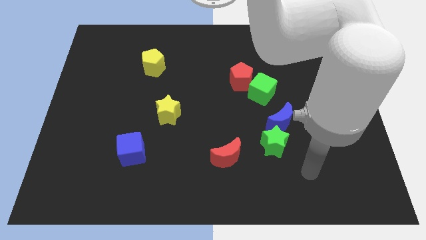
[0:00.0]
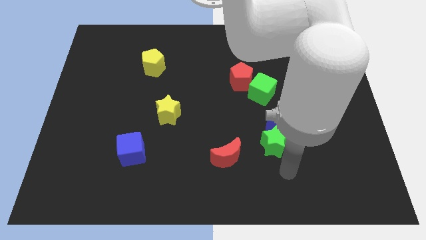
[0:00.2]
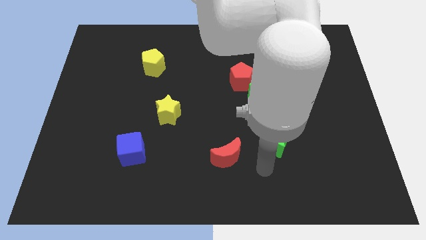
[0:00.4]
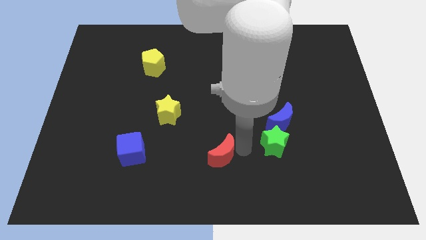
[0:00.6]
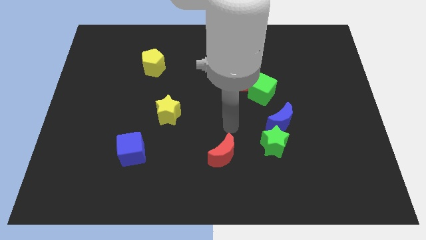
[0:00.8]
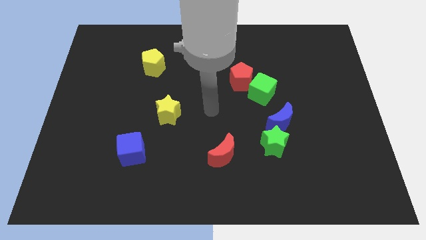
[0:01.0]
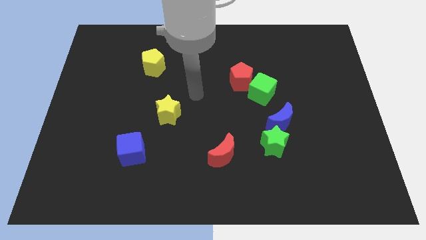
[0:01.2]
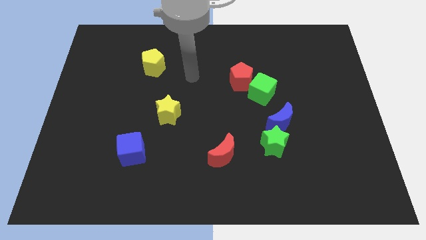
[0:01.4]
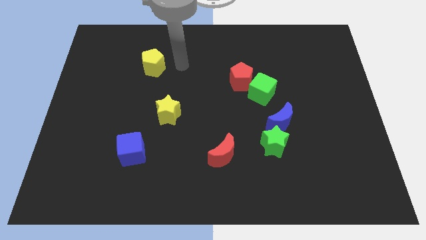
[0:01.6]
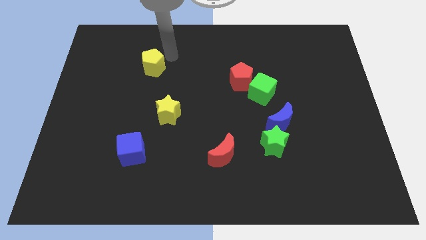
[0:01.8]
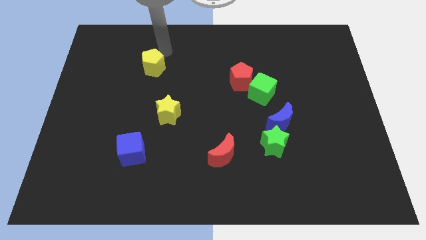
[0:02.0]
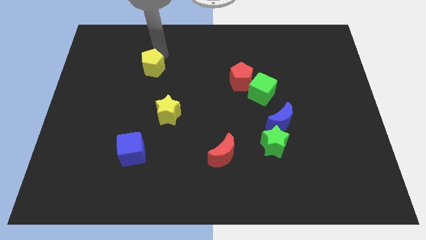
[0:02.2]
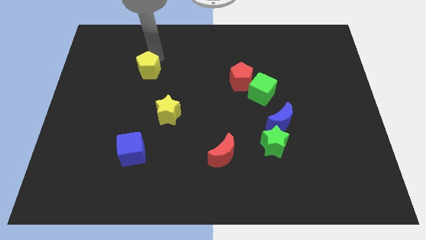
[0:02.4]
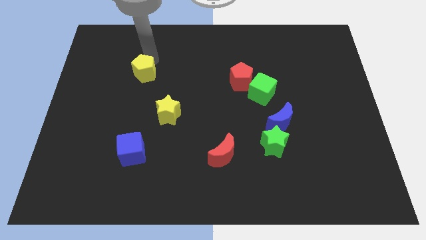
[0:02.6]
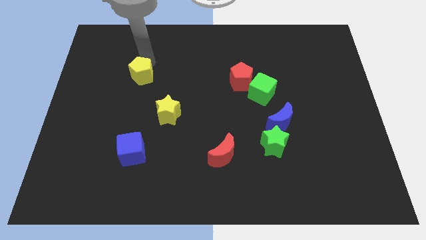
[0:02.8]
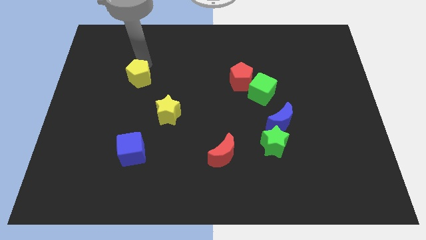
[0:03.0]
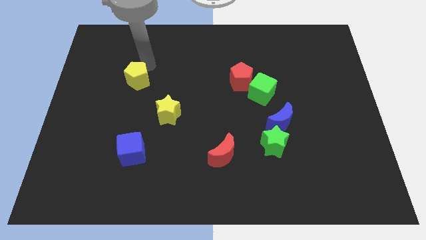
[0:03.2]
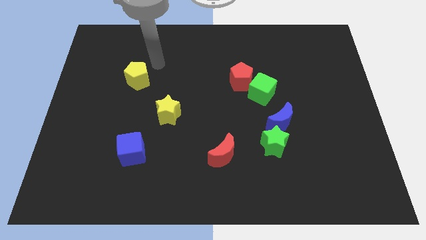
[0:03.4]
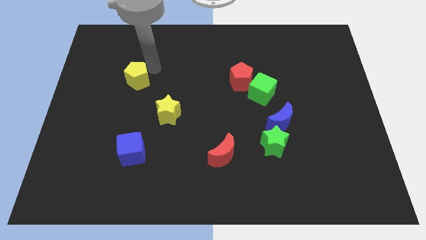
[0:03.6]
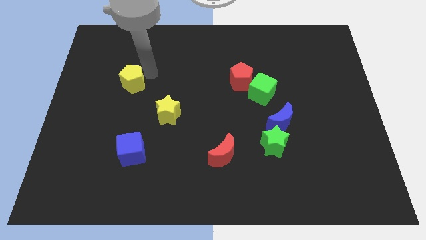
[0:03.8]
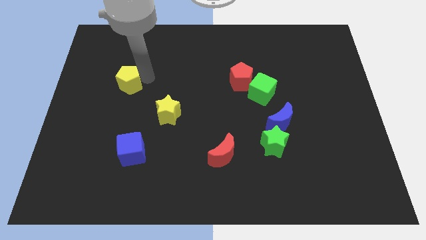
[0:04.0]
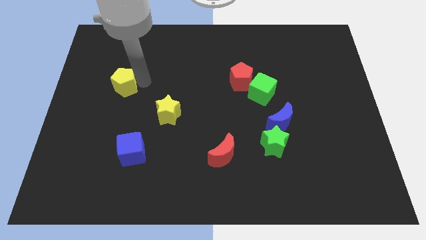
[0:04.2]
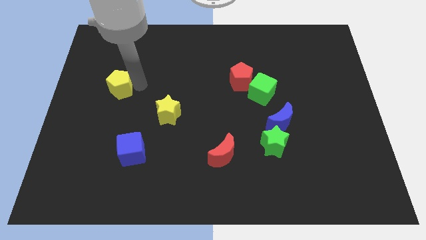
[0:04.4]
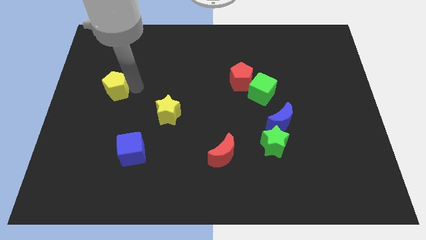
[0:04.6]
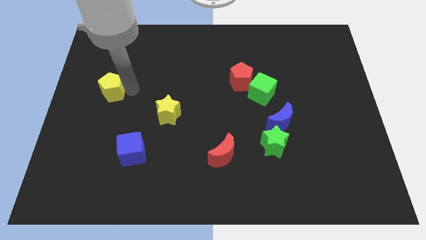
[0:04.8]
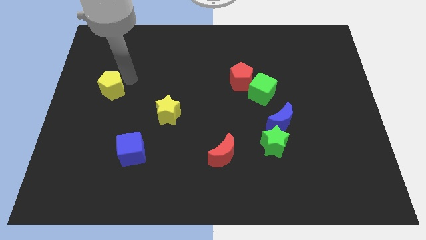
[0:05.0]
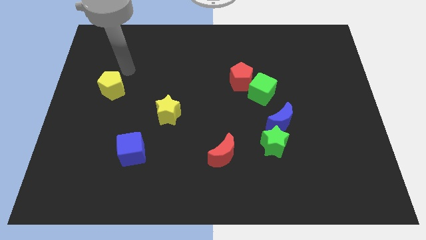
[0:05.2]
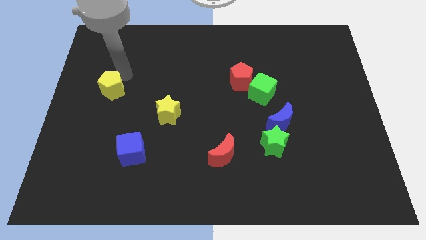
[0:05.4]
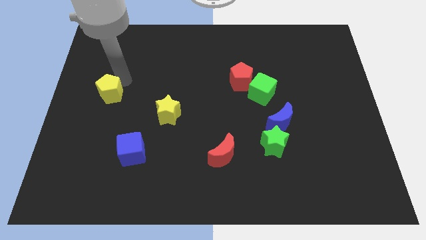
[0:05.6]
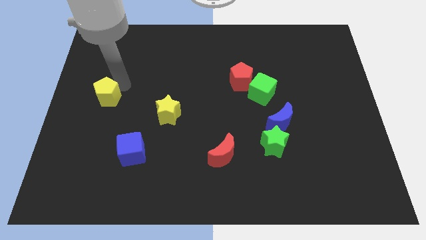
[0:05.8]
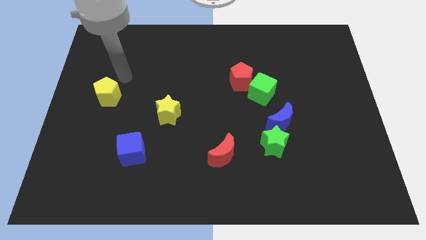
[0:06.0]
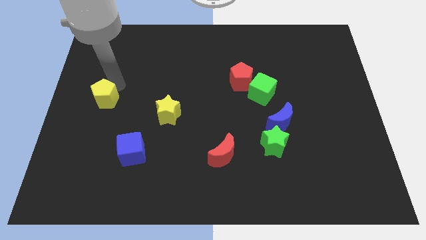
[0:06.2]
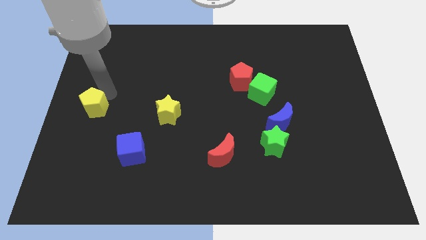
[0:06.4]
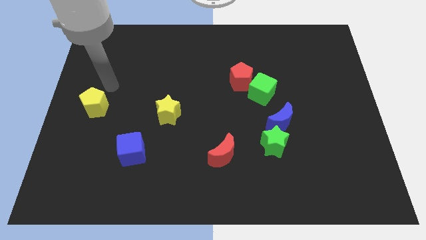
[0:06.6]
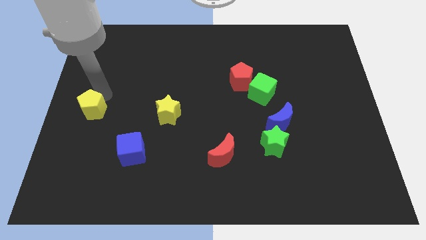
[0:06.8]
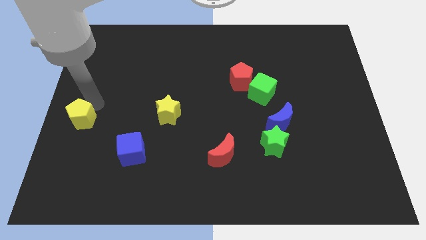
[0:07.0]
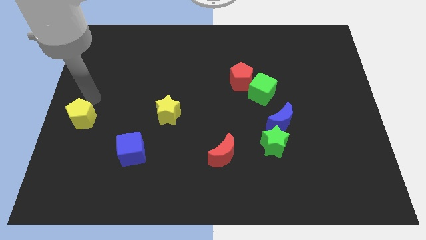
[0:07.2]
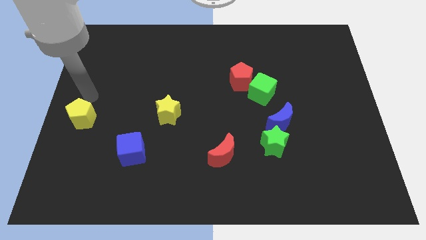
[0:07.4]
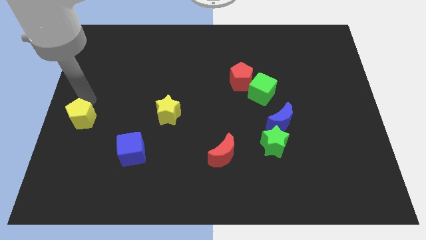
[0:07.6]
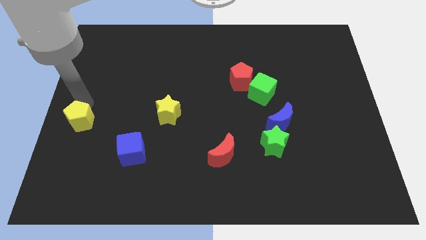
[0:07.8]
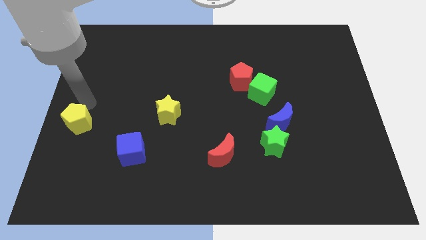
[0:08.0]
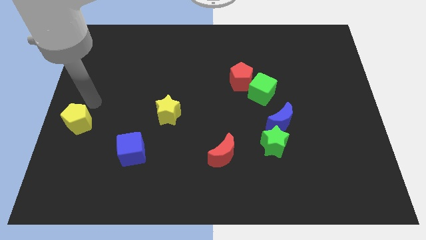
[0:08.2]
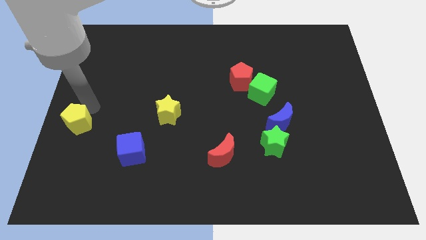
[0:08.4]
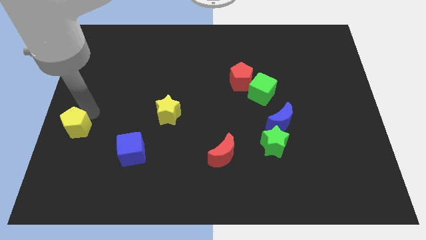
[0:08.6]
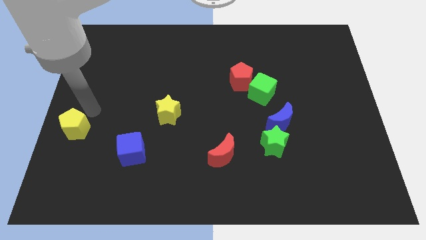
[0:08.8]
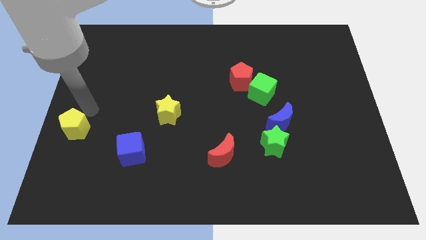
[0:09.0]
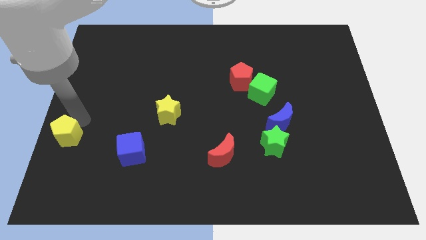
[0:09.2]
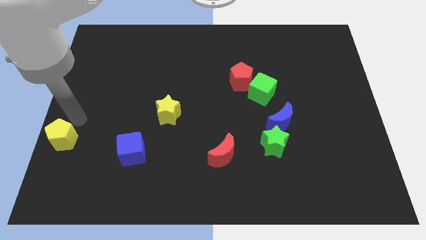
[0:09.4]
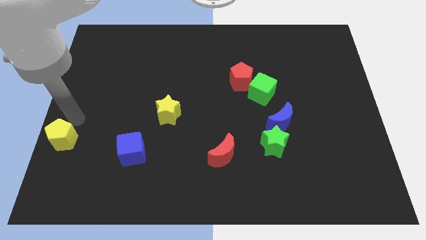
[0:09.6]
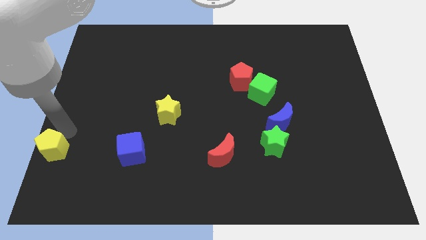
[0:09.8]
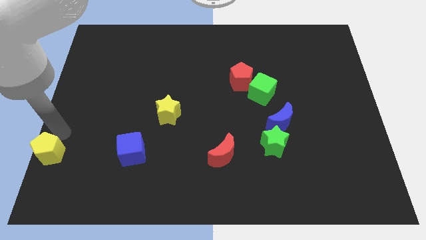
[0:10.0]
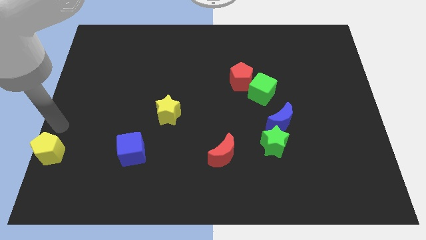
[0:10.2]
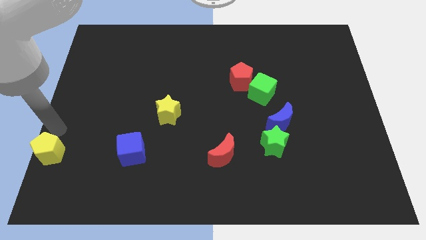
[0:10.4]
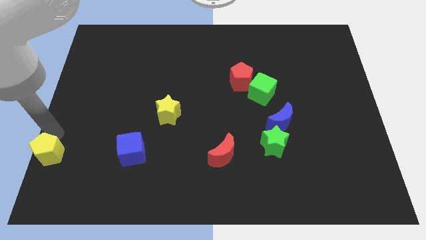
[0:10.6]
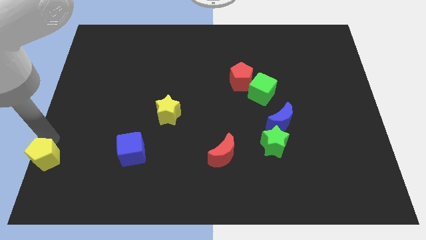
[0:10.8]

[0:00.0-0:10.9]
put the yellow pentagon to the bottom left of the board

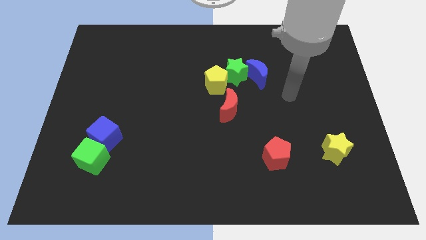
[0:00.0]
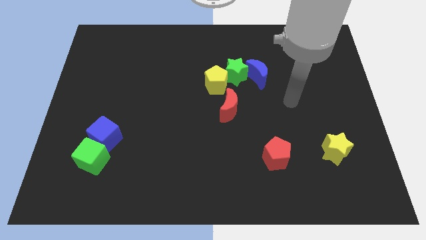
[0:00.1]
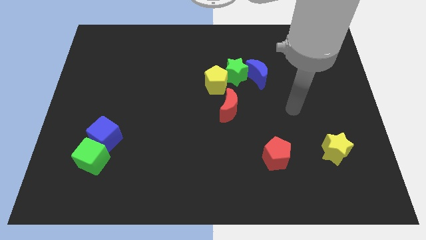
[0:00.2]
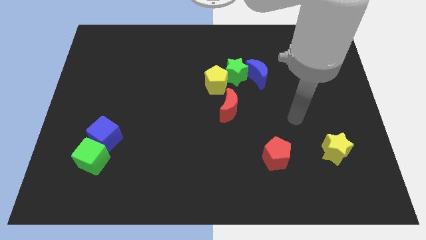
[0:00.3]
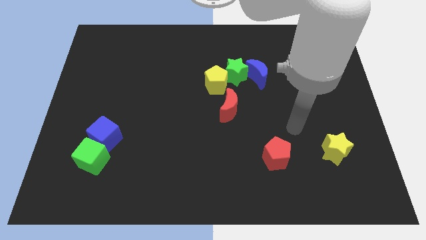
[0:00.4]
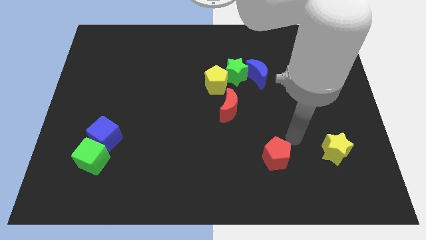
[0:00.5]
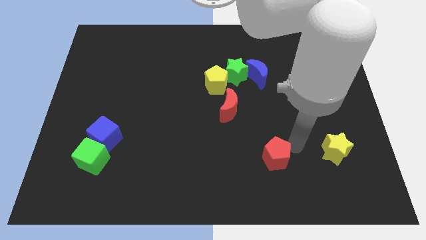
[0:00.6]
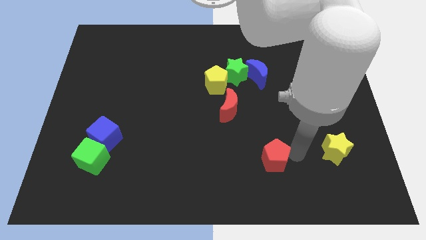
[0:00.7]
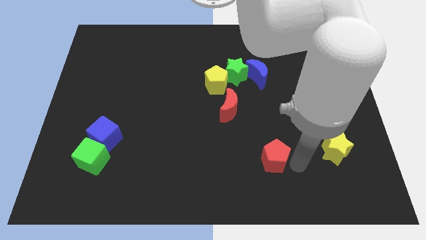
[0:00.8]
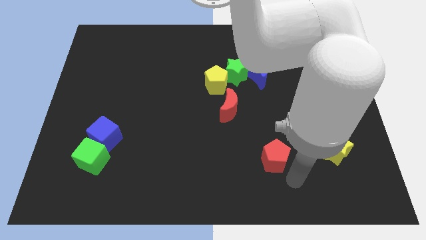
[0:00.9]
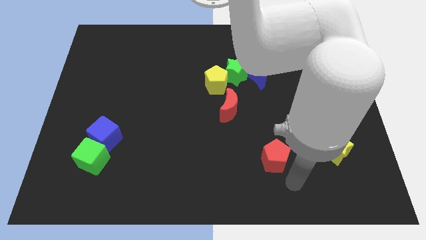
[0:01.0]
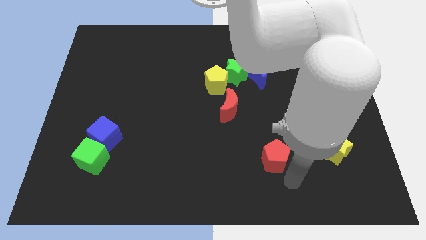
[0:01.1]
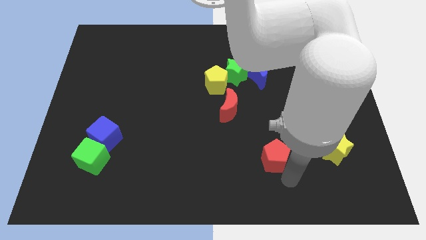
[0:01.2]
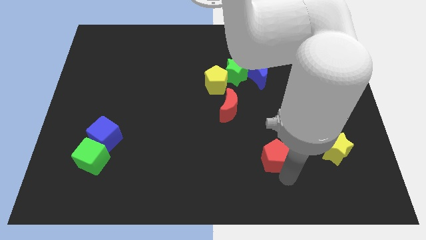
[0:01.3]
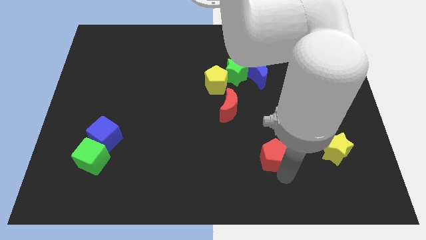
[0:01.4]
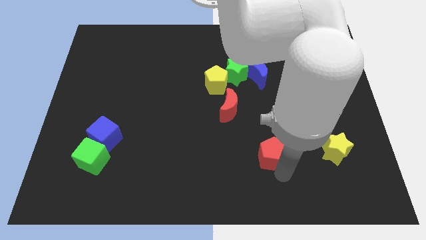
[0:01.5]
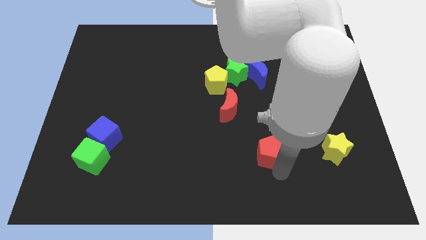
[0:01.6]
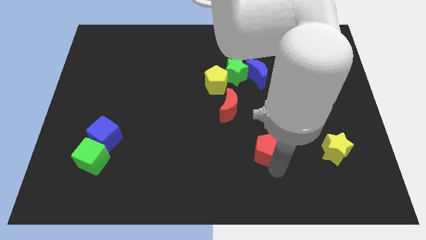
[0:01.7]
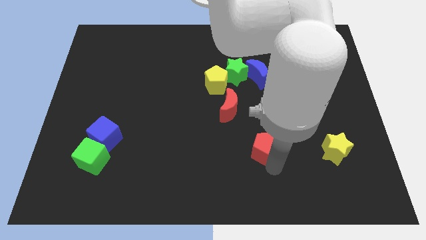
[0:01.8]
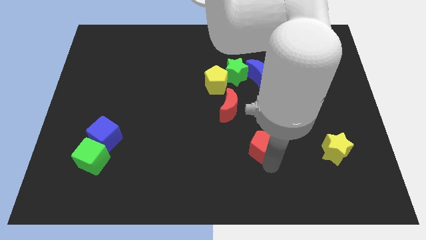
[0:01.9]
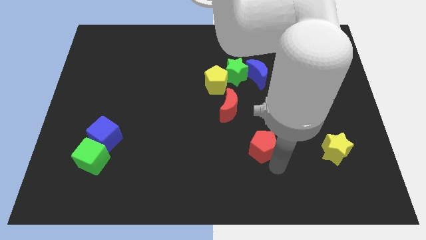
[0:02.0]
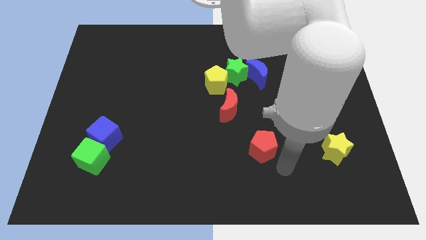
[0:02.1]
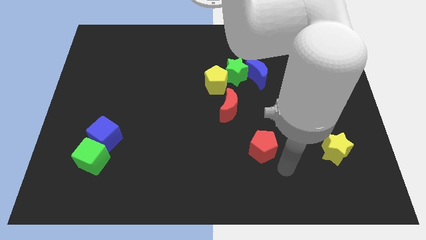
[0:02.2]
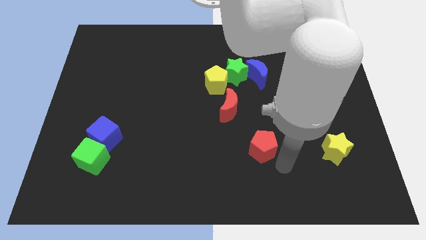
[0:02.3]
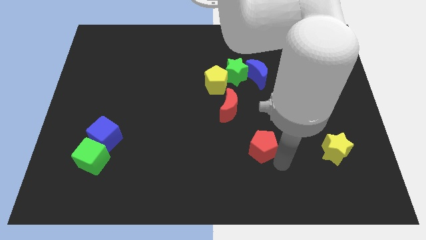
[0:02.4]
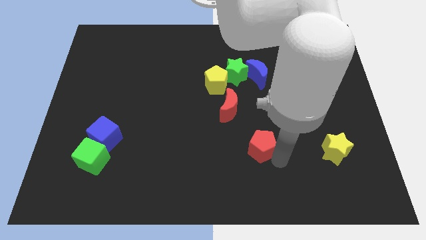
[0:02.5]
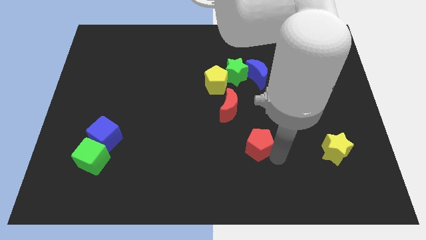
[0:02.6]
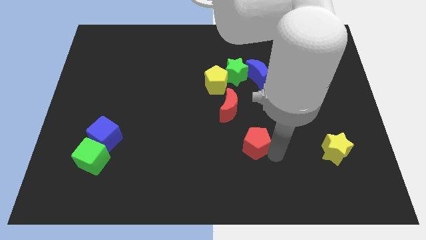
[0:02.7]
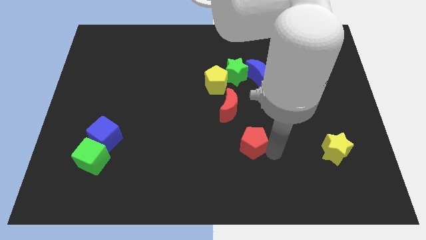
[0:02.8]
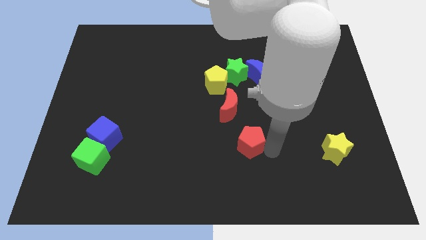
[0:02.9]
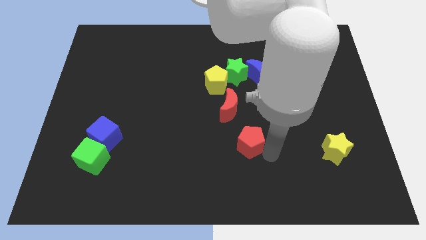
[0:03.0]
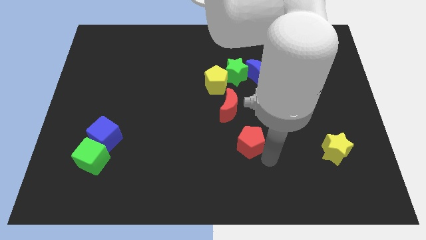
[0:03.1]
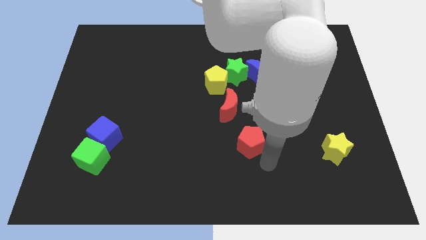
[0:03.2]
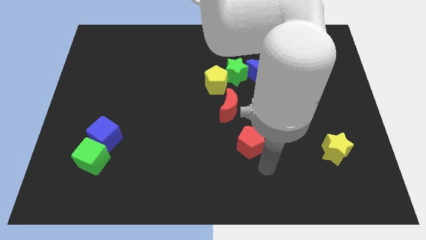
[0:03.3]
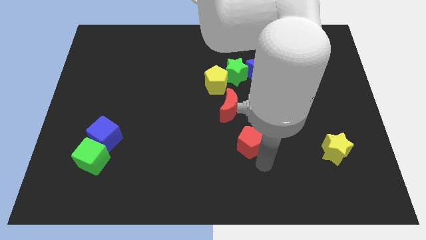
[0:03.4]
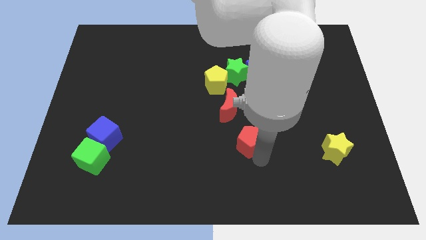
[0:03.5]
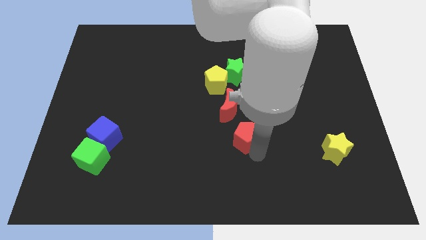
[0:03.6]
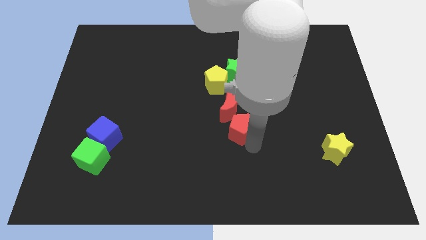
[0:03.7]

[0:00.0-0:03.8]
put the red pentagon to the middle
